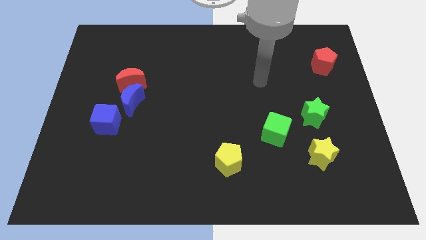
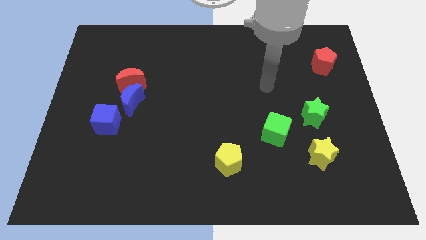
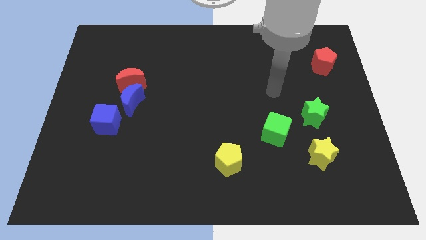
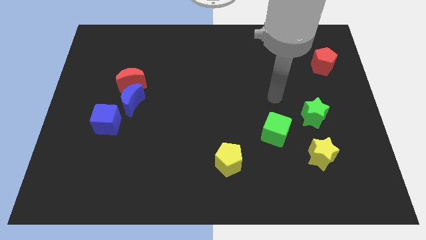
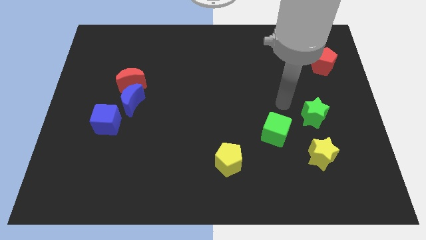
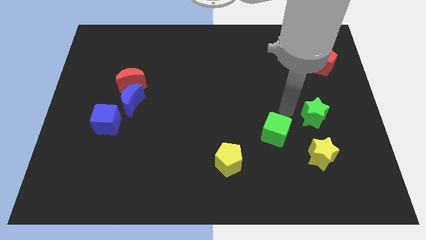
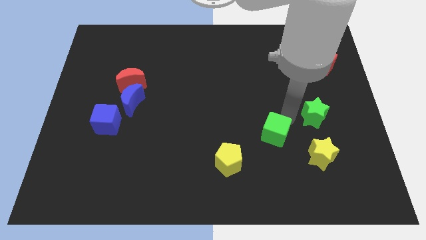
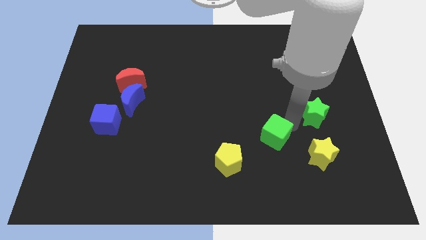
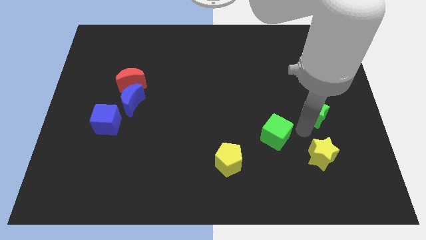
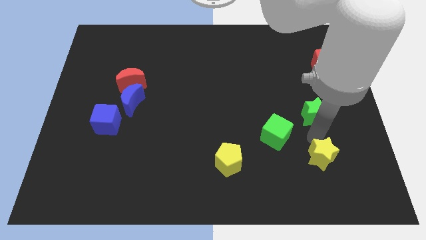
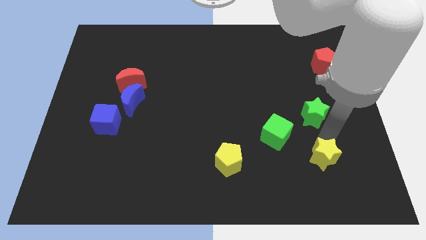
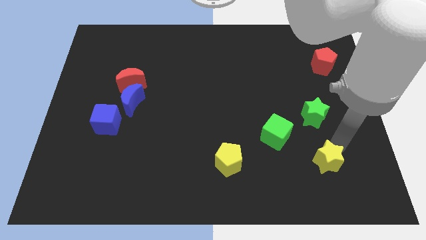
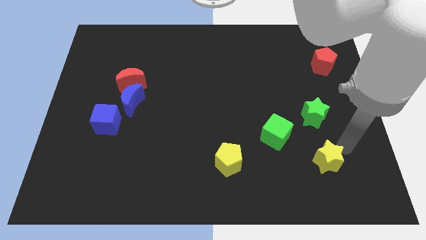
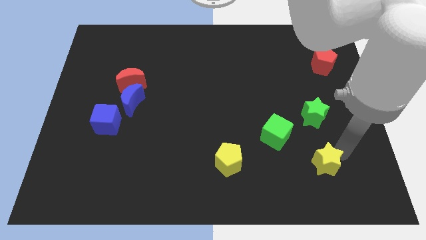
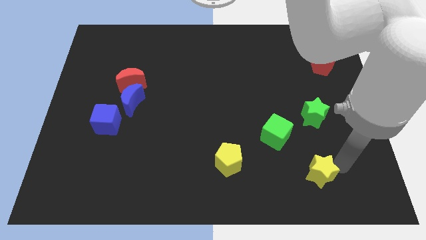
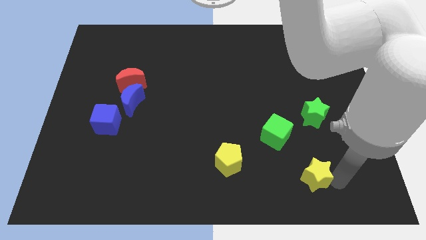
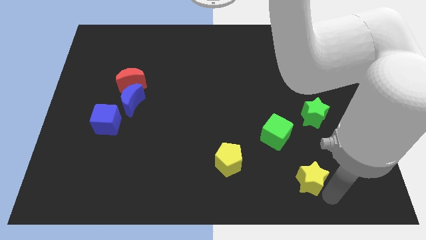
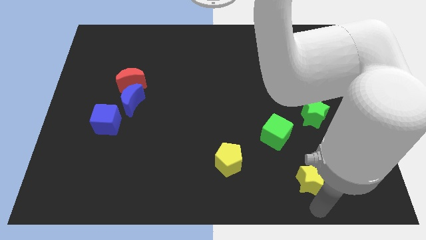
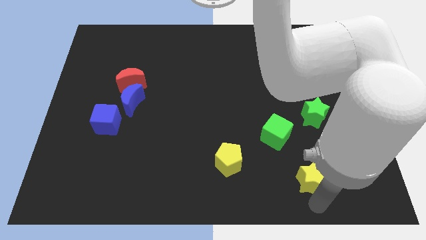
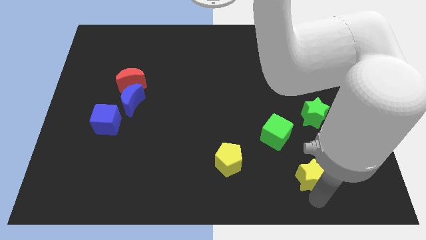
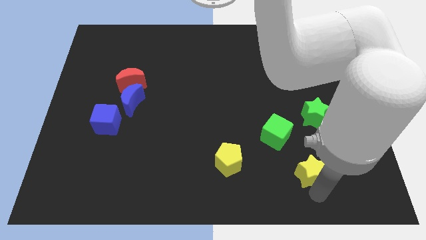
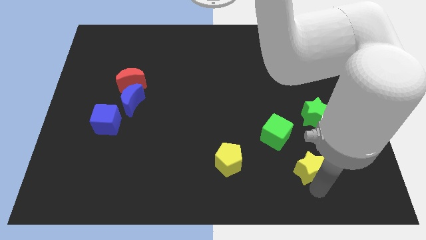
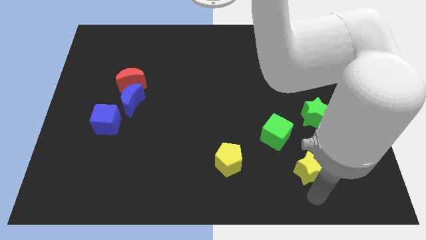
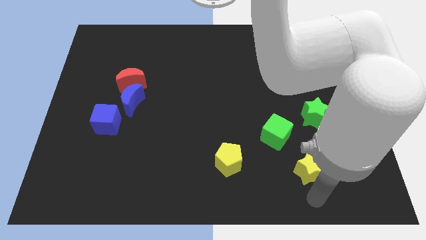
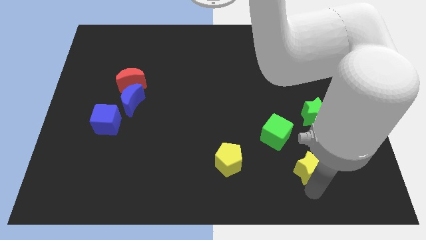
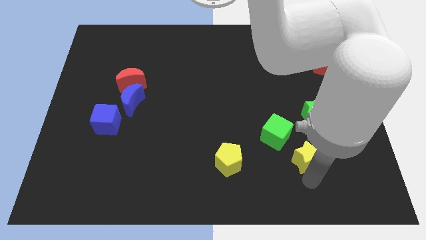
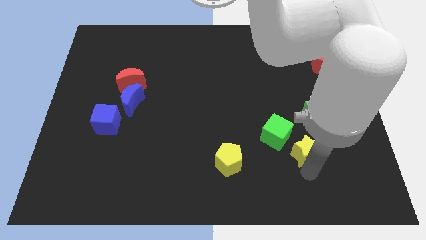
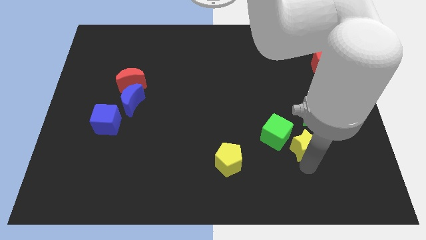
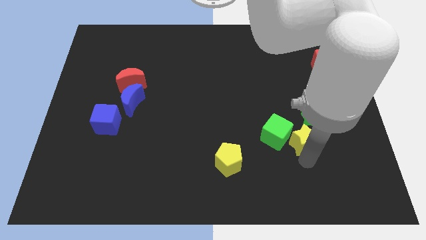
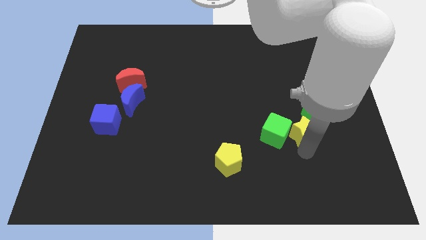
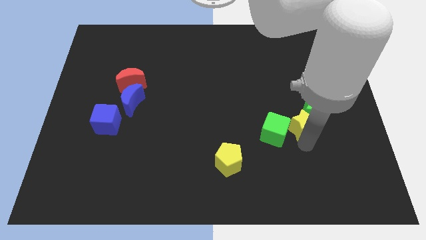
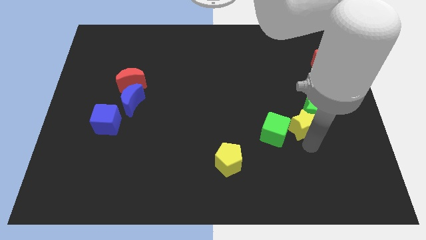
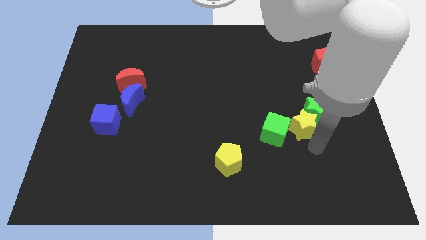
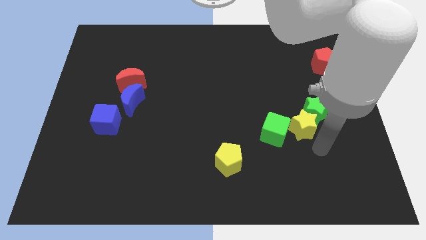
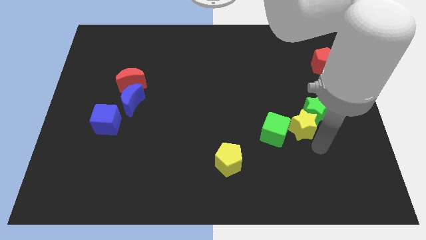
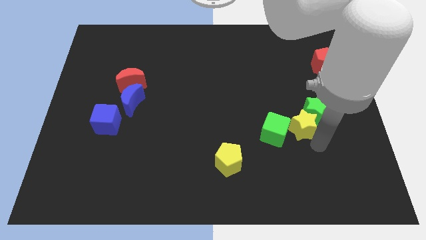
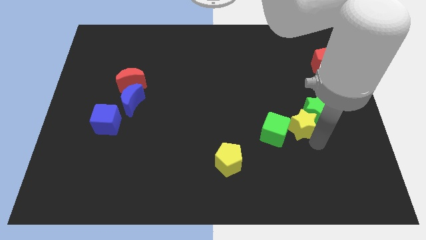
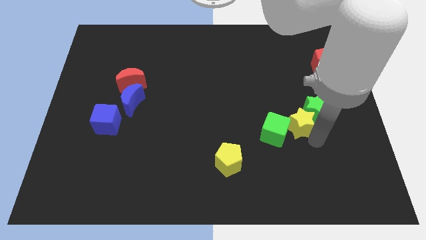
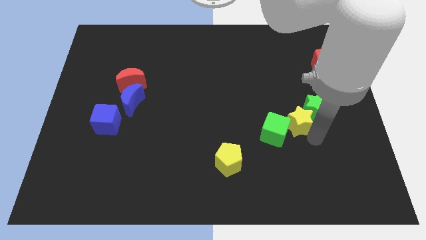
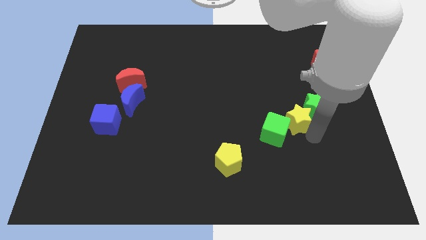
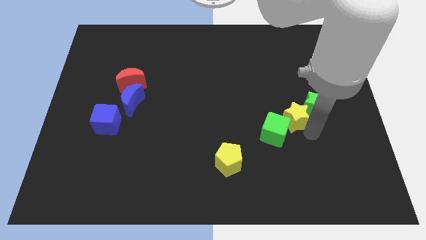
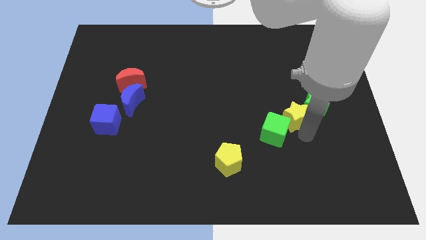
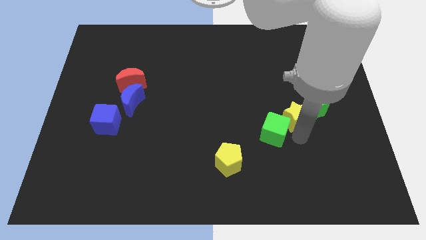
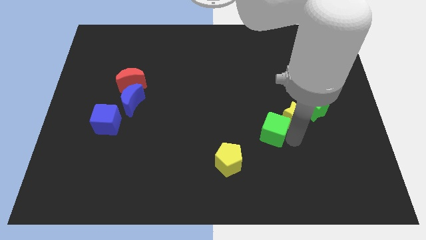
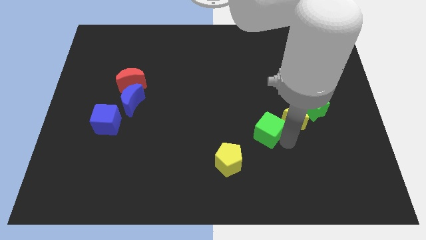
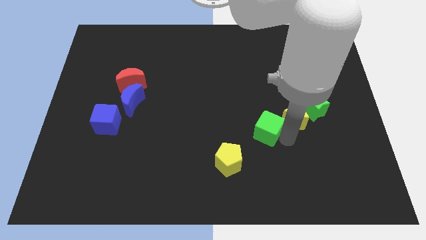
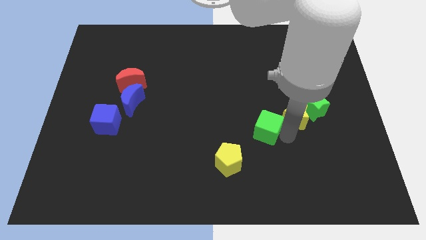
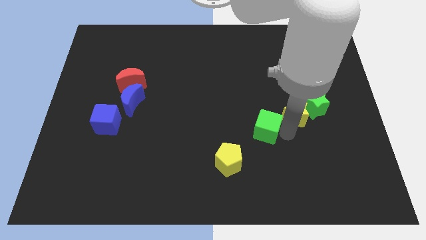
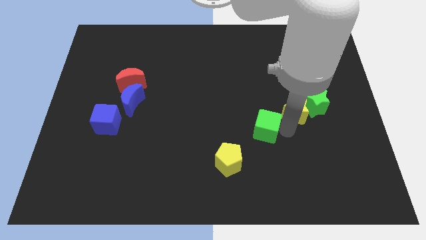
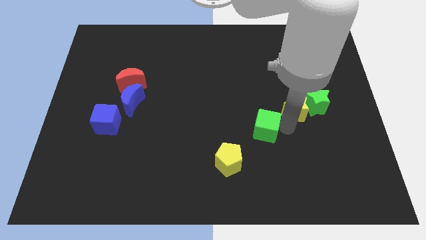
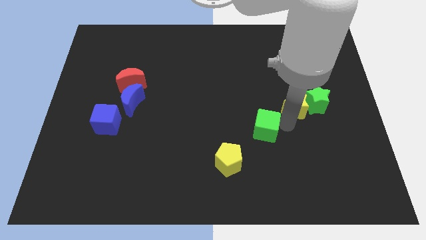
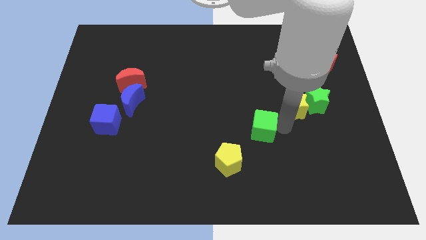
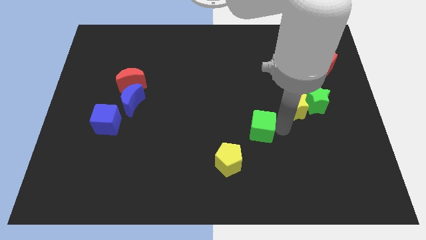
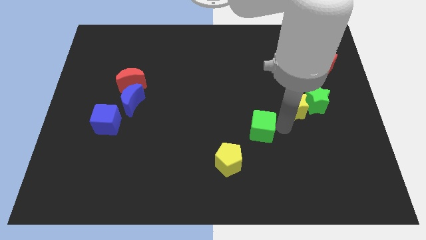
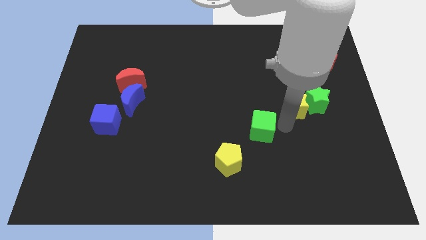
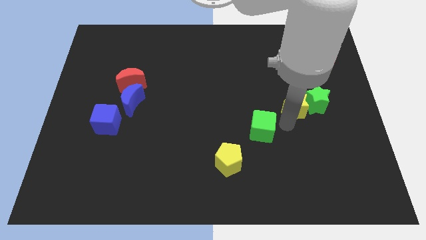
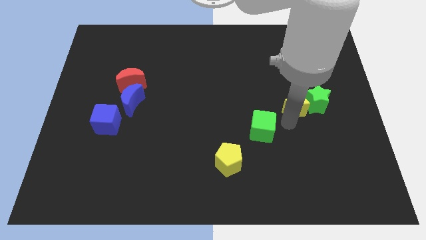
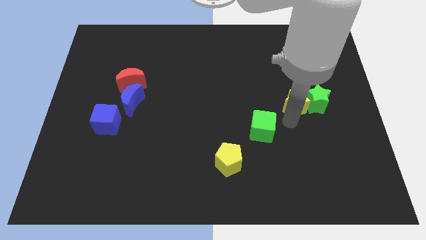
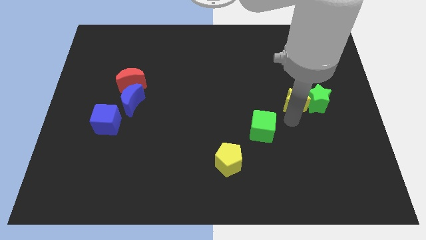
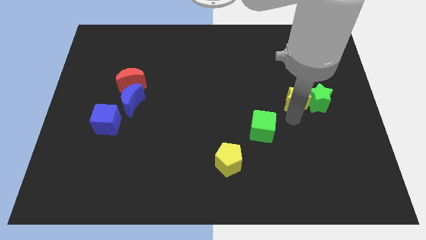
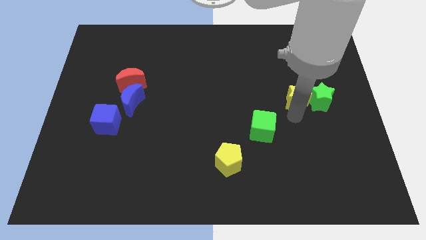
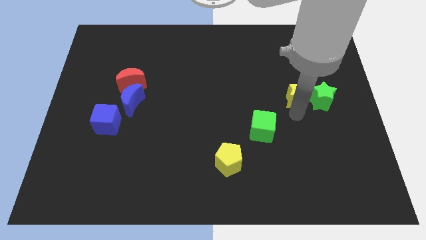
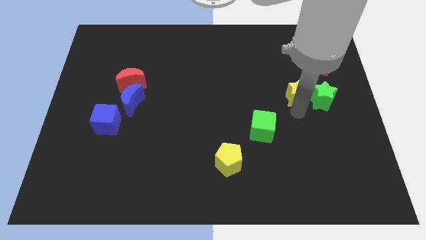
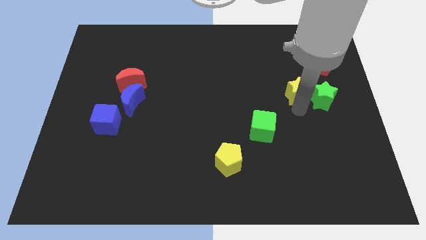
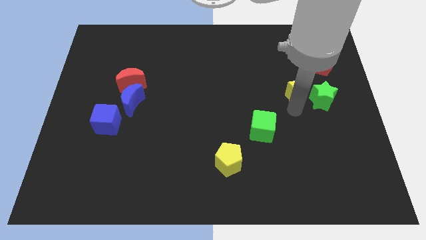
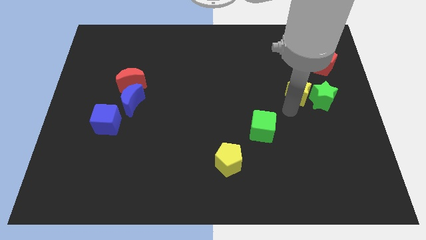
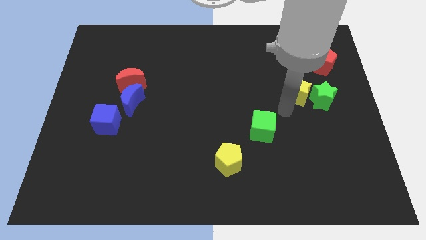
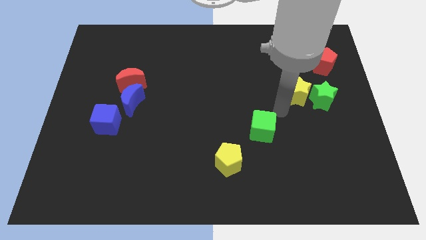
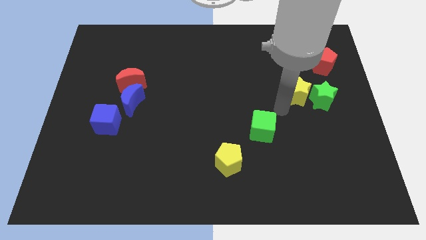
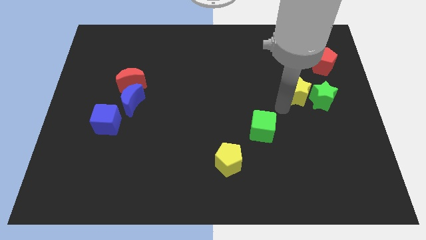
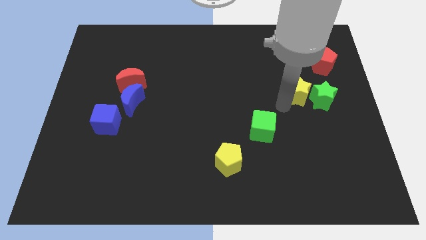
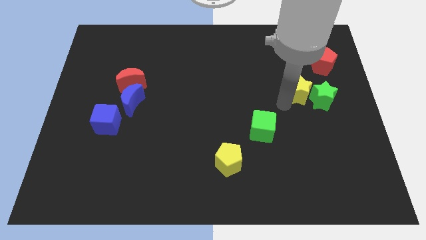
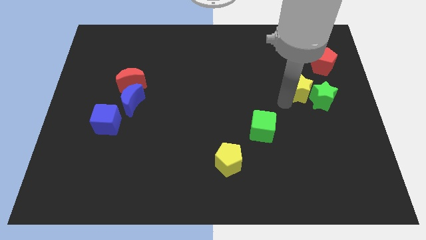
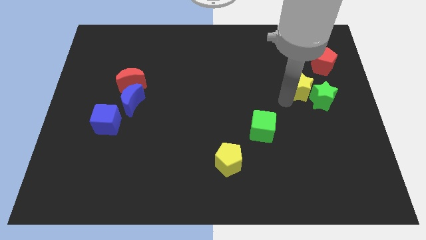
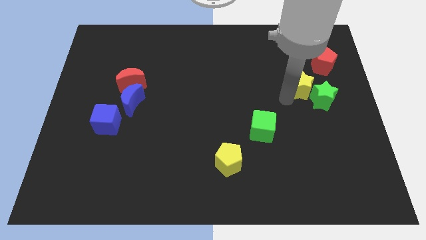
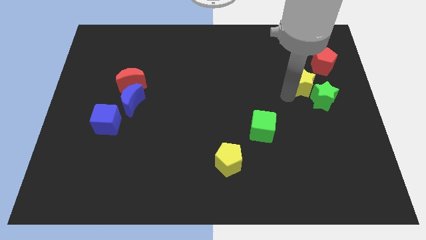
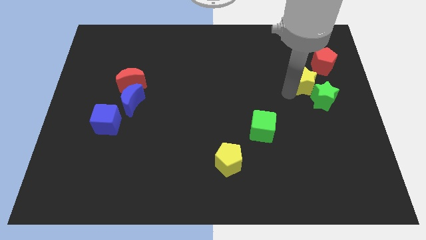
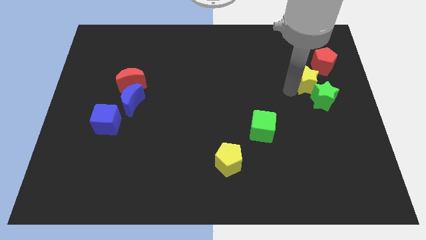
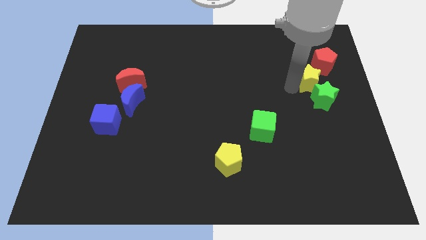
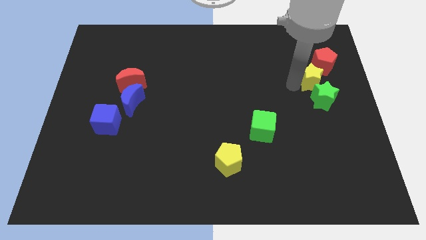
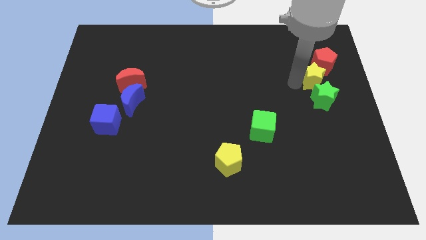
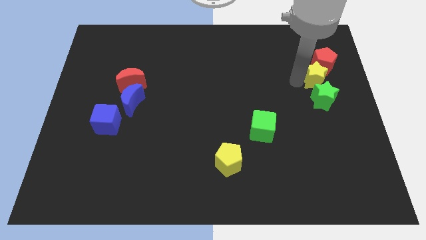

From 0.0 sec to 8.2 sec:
move the yellow star towards the red pentagon
